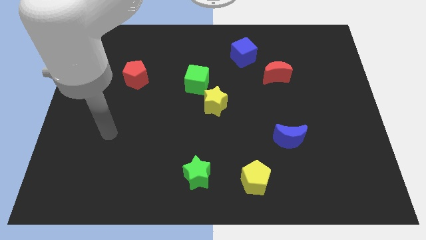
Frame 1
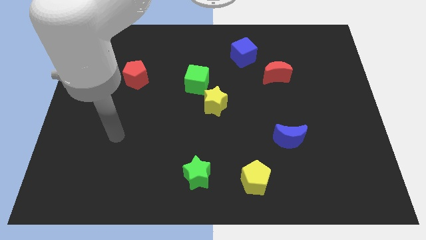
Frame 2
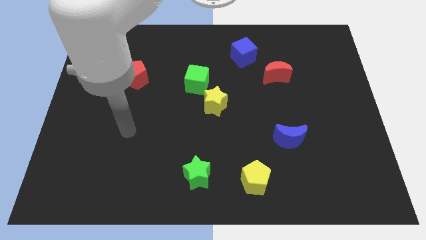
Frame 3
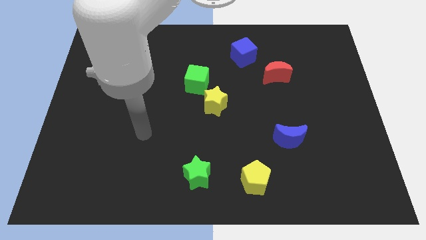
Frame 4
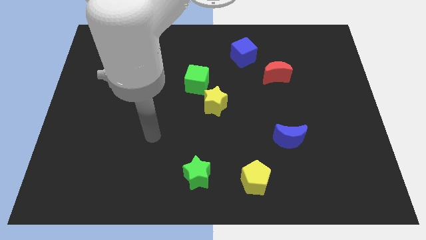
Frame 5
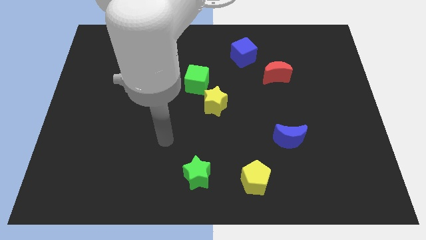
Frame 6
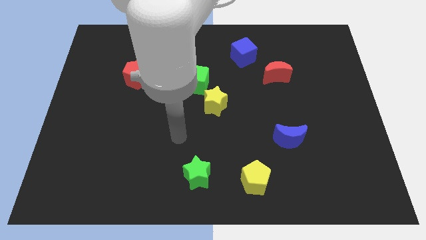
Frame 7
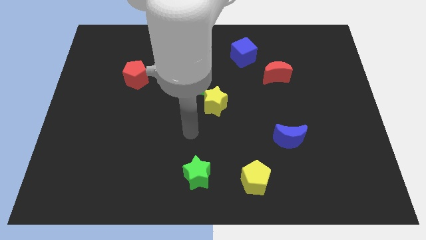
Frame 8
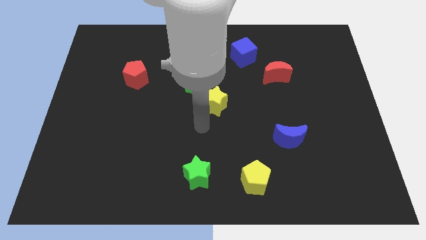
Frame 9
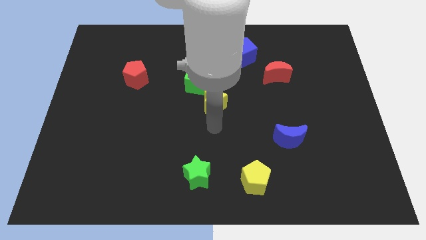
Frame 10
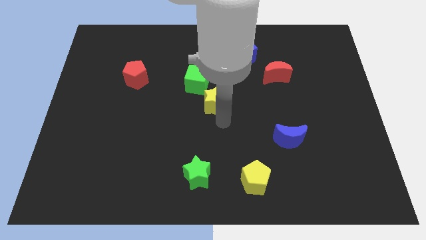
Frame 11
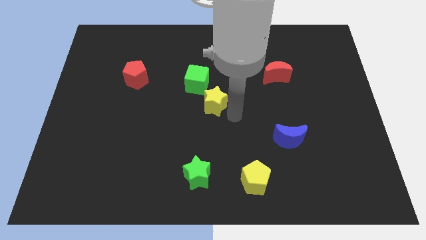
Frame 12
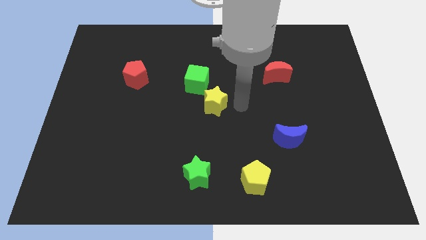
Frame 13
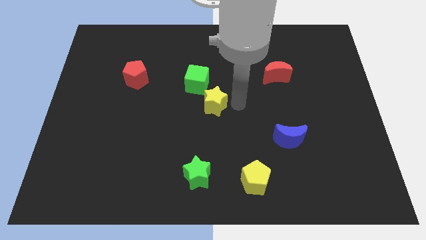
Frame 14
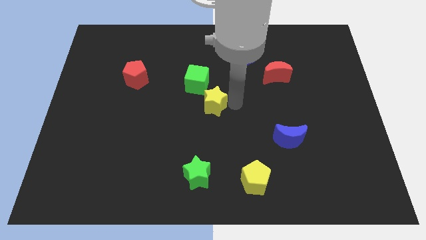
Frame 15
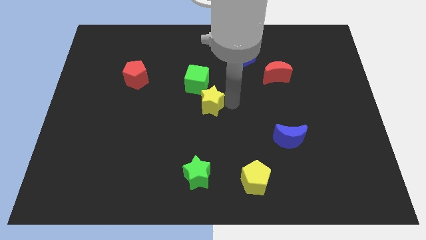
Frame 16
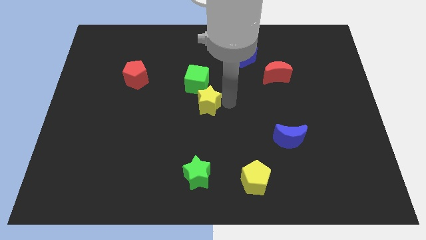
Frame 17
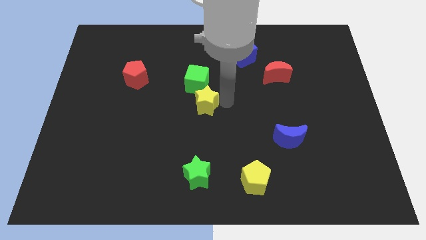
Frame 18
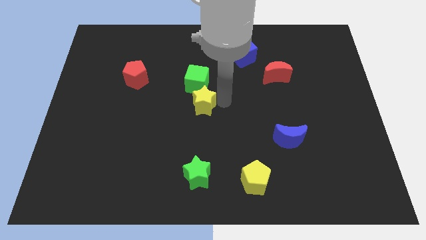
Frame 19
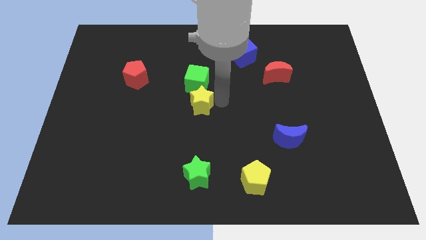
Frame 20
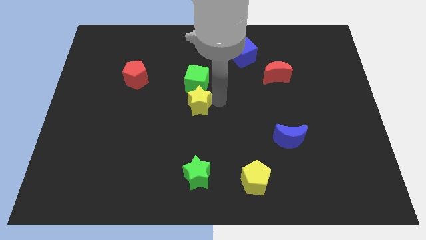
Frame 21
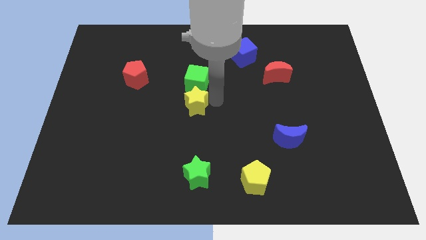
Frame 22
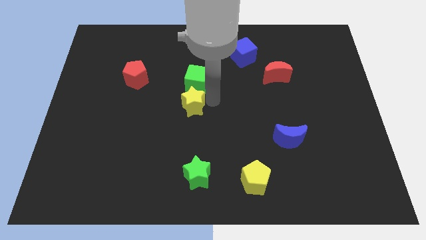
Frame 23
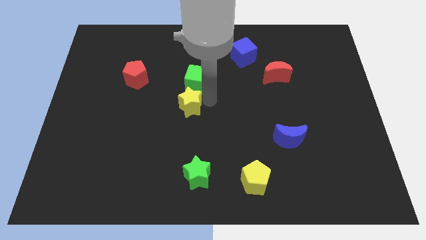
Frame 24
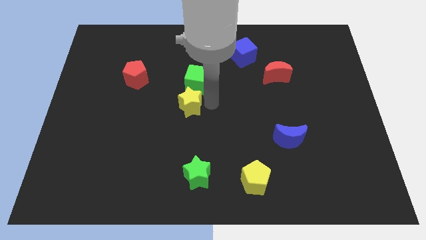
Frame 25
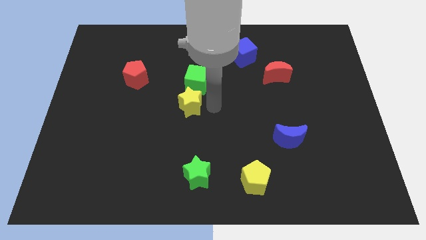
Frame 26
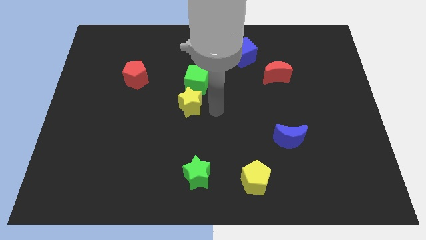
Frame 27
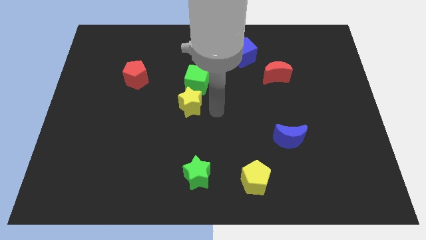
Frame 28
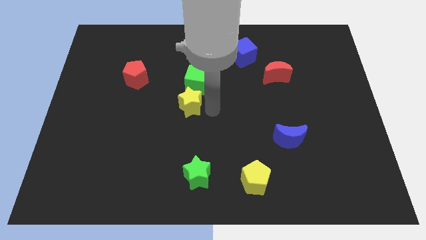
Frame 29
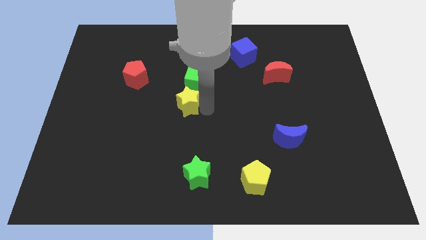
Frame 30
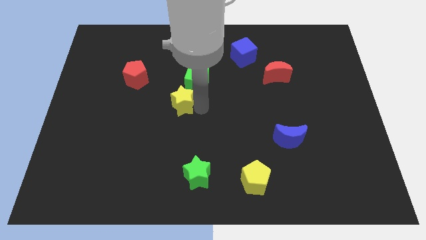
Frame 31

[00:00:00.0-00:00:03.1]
push the yellow star slightly to the left

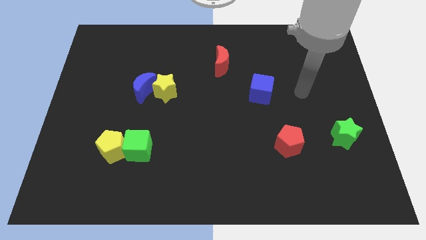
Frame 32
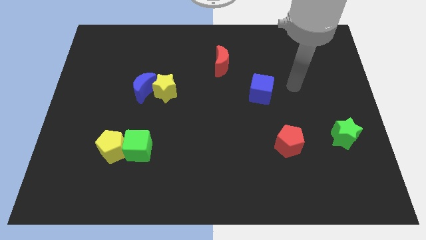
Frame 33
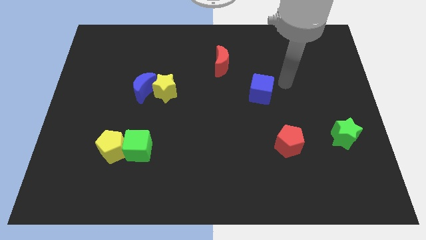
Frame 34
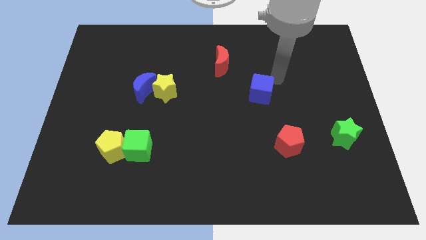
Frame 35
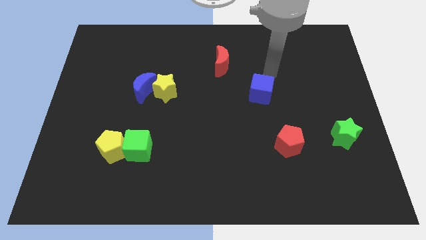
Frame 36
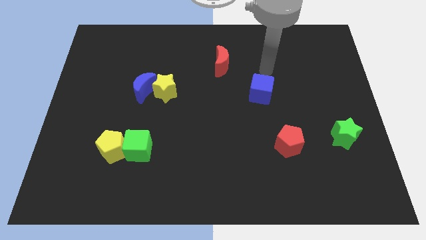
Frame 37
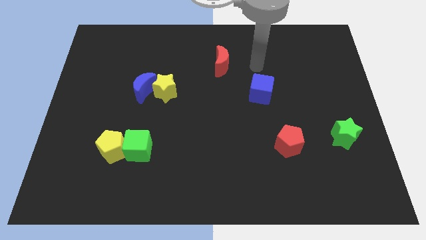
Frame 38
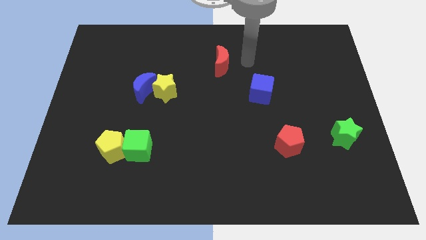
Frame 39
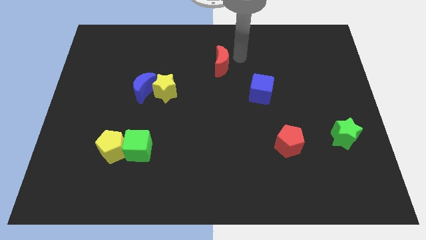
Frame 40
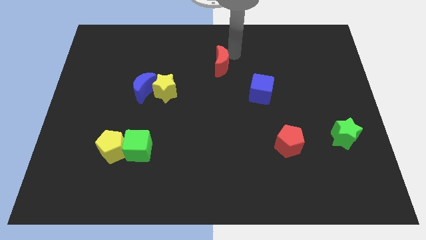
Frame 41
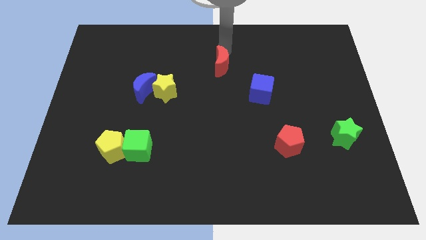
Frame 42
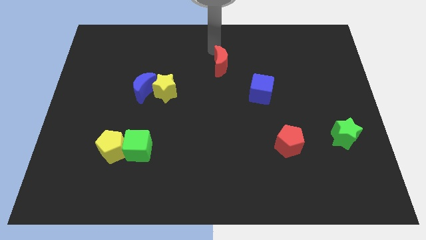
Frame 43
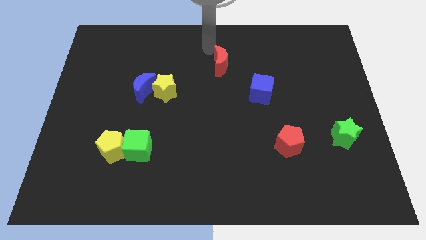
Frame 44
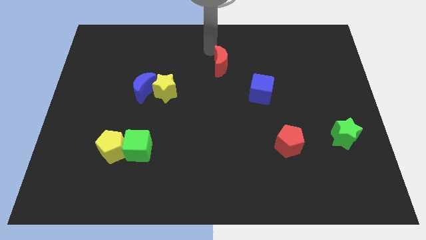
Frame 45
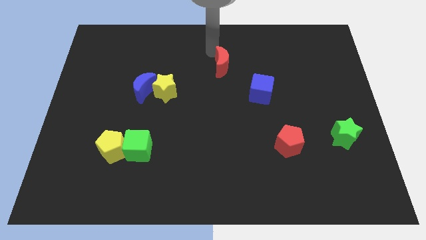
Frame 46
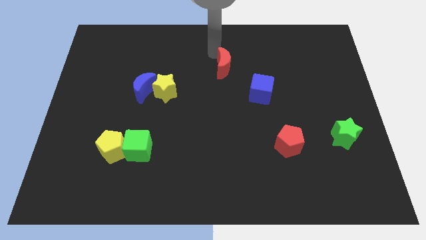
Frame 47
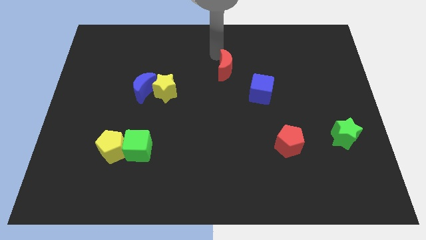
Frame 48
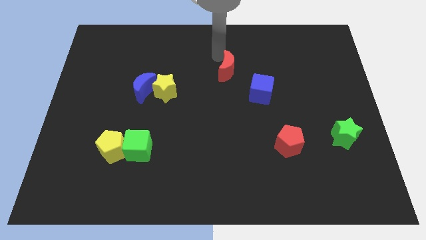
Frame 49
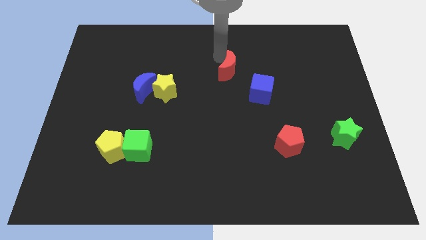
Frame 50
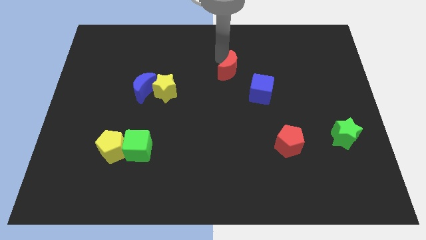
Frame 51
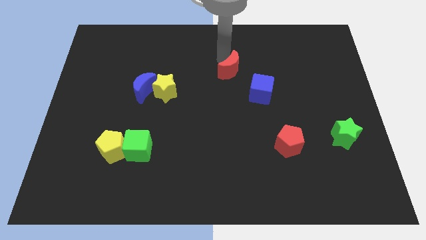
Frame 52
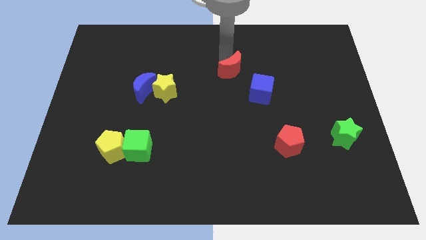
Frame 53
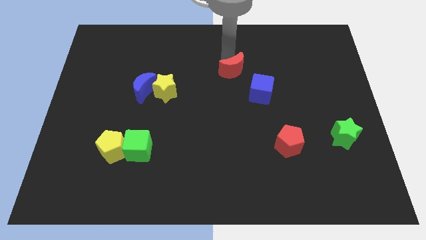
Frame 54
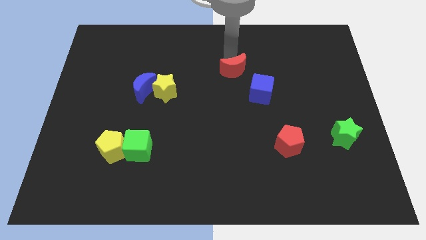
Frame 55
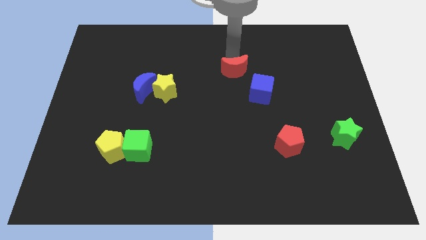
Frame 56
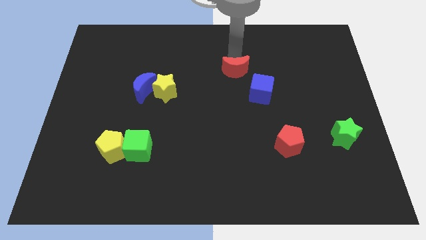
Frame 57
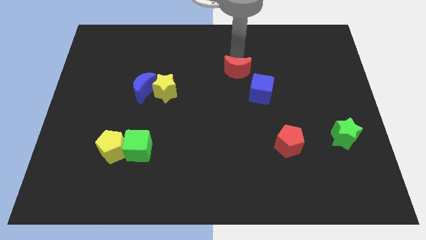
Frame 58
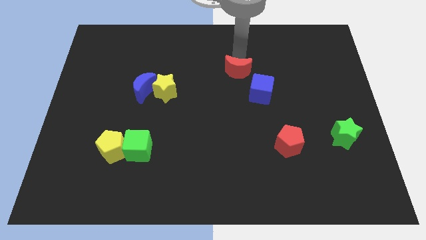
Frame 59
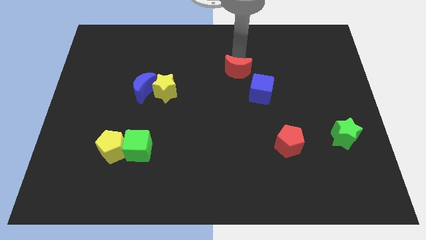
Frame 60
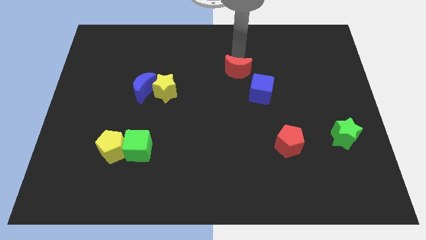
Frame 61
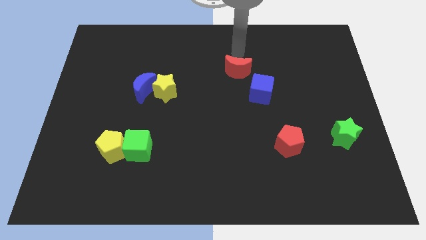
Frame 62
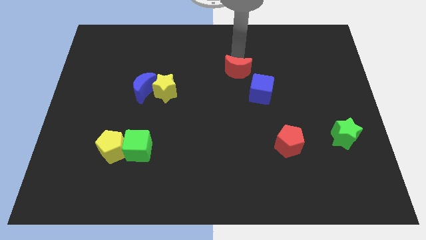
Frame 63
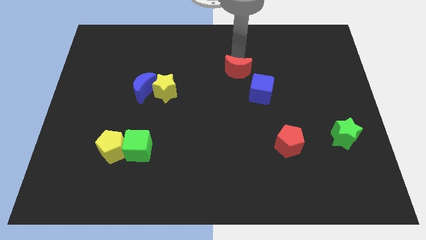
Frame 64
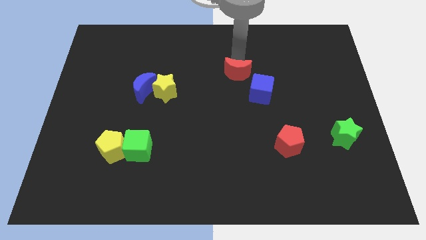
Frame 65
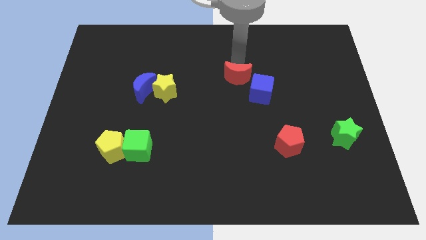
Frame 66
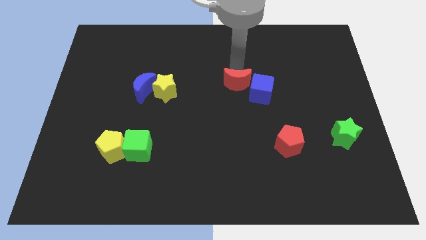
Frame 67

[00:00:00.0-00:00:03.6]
slightly move the red moon down and right diagonally

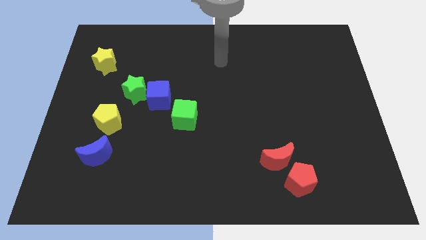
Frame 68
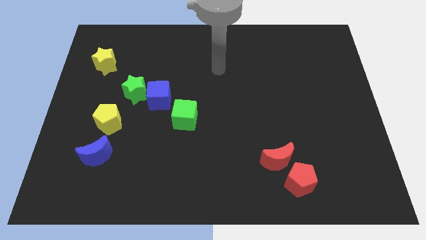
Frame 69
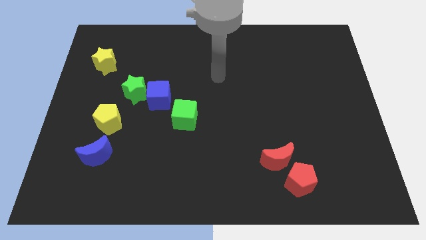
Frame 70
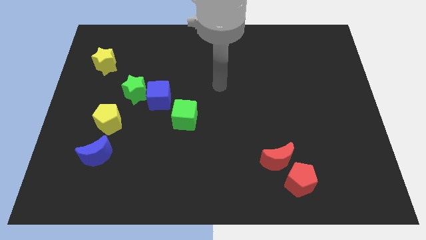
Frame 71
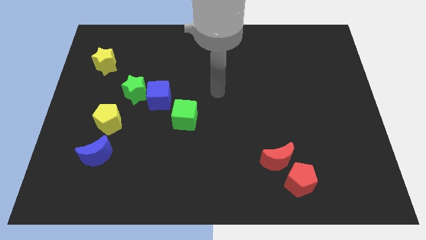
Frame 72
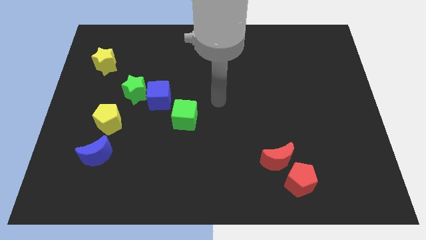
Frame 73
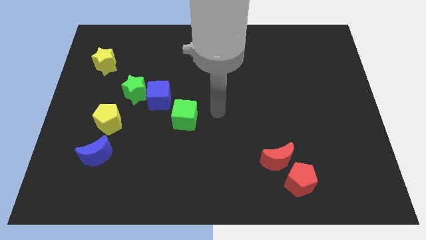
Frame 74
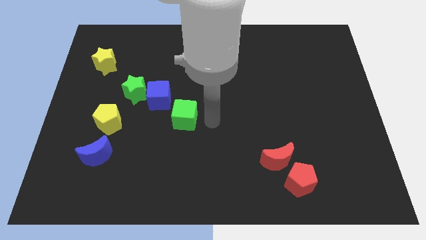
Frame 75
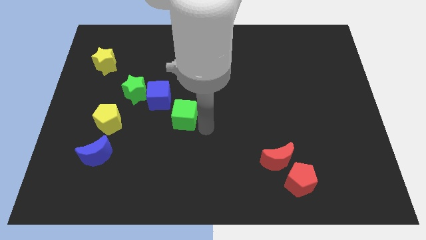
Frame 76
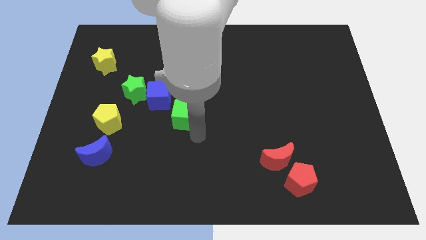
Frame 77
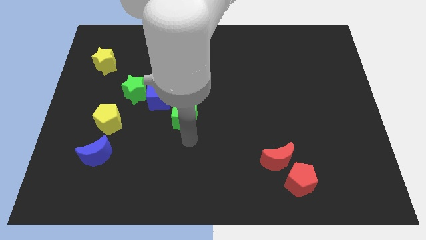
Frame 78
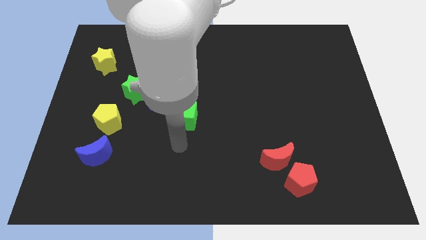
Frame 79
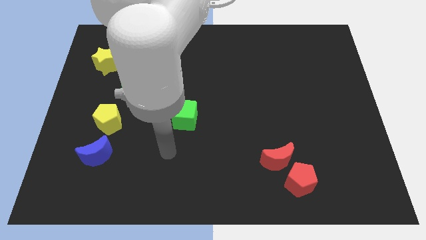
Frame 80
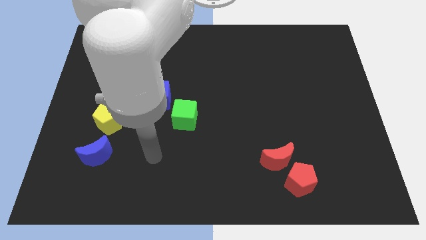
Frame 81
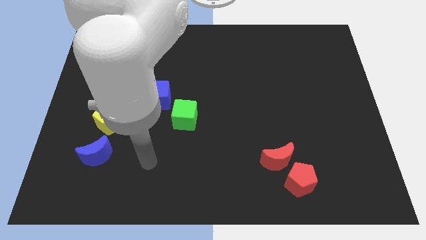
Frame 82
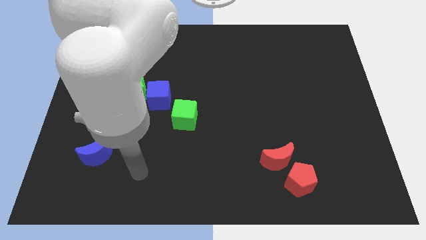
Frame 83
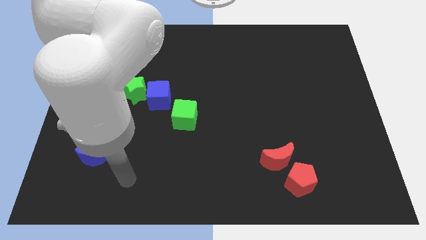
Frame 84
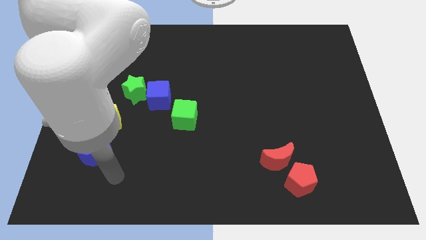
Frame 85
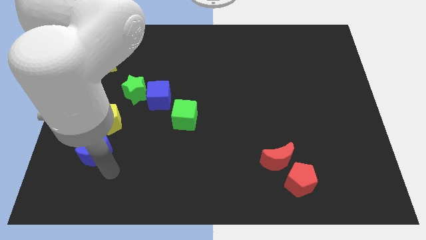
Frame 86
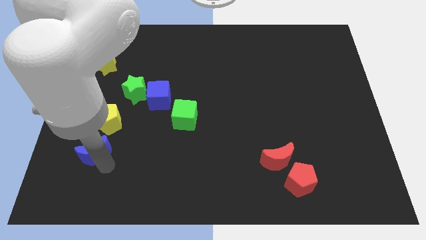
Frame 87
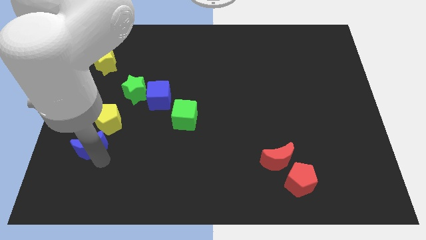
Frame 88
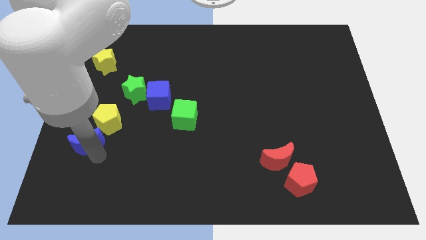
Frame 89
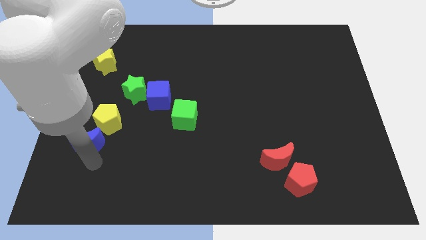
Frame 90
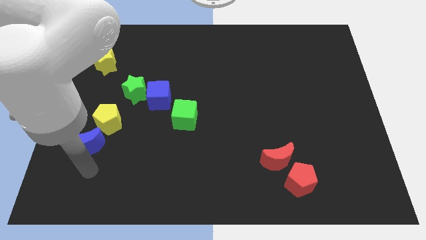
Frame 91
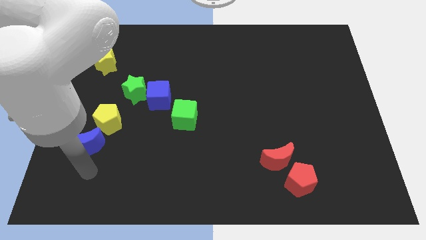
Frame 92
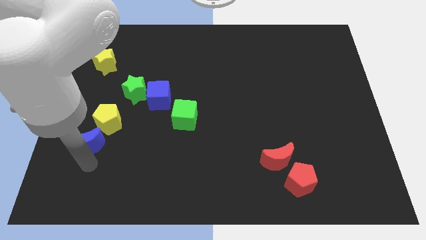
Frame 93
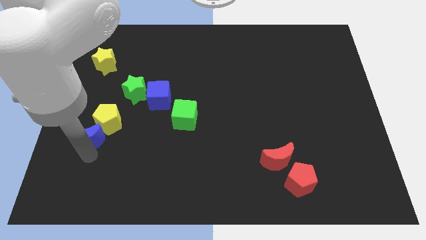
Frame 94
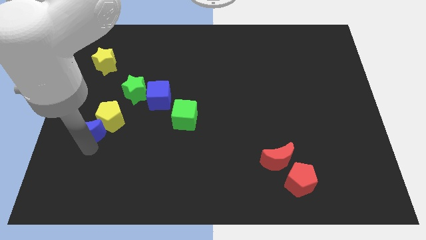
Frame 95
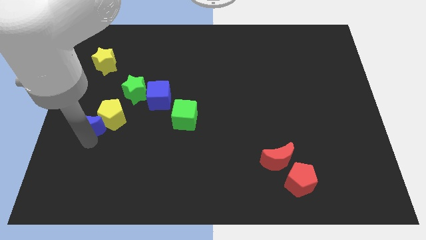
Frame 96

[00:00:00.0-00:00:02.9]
slide the blue moon upwards a little
